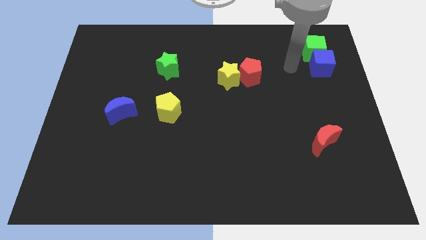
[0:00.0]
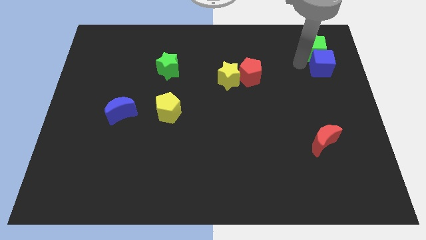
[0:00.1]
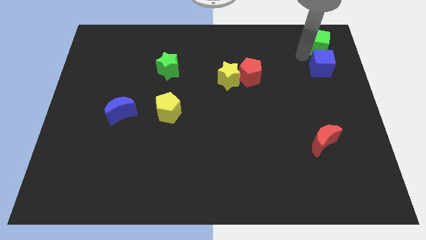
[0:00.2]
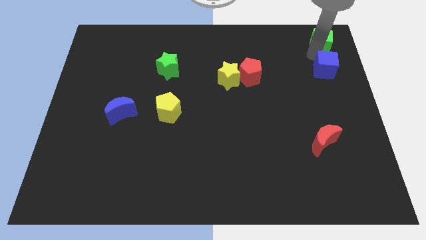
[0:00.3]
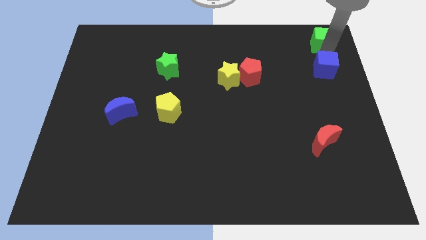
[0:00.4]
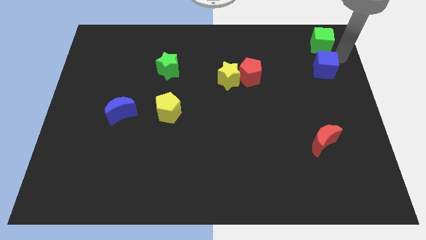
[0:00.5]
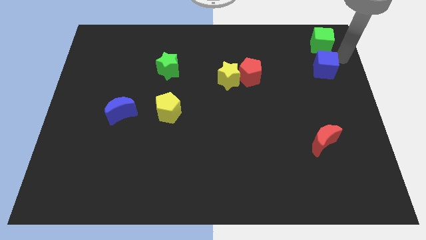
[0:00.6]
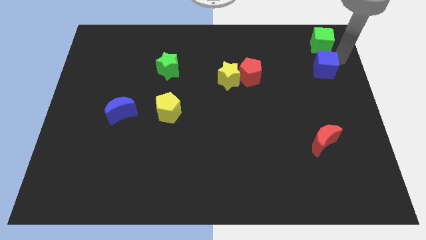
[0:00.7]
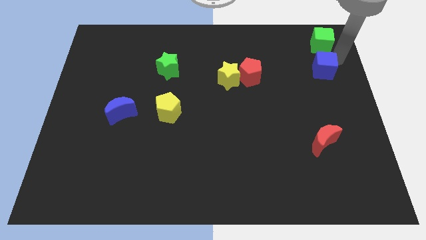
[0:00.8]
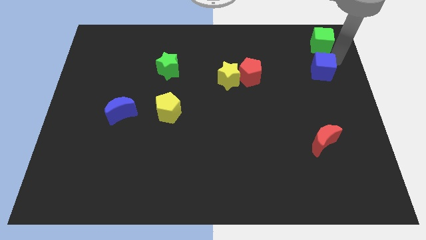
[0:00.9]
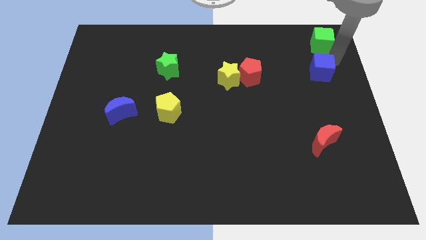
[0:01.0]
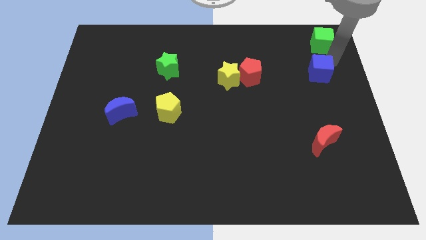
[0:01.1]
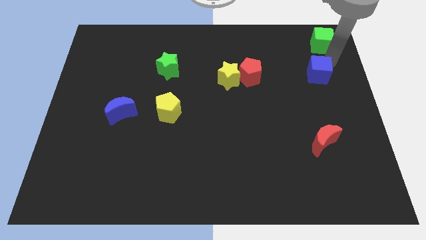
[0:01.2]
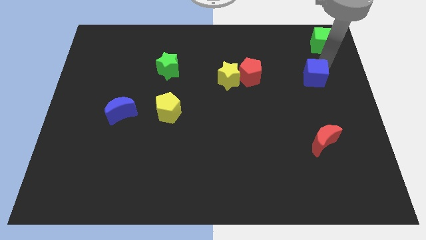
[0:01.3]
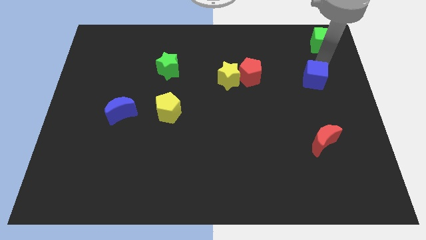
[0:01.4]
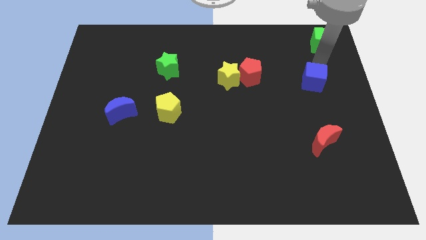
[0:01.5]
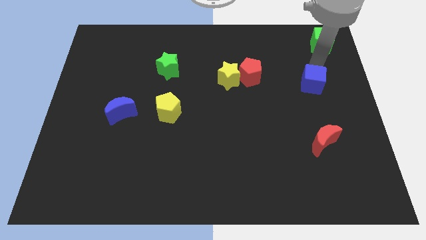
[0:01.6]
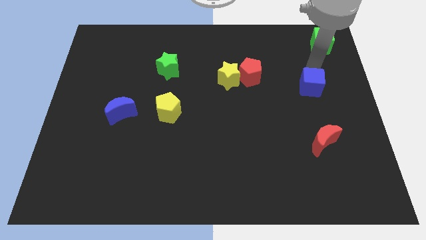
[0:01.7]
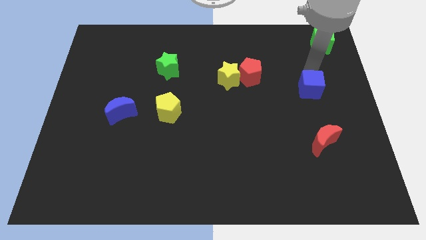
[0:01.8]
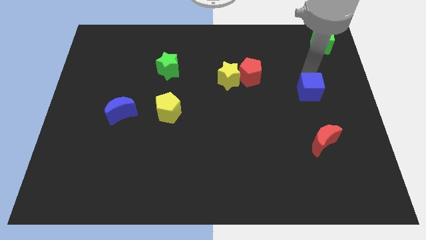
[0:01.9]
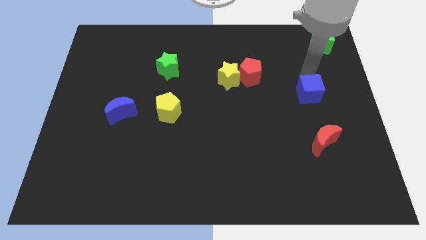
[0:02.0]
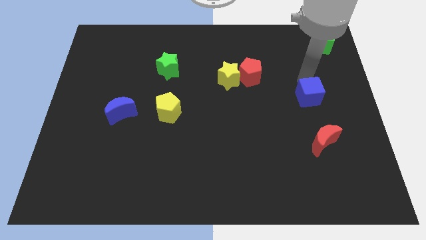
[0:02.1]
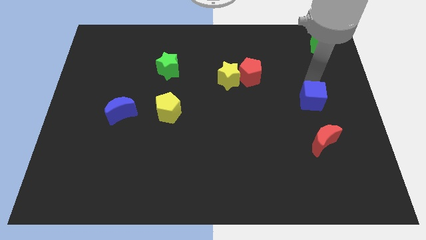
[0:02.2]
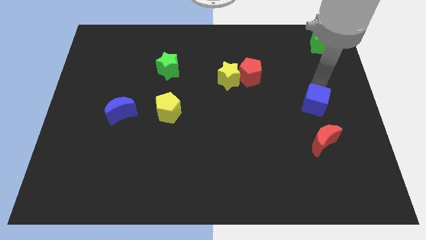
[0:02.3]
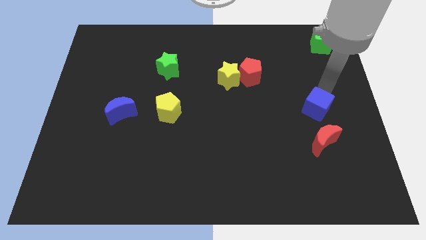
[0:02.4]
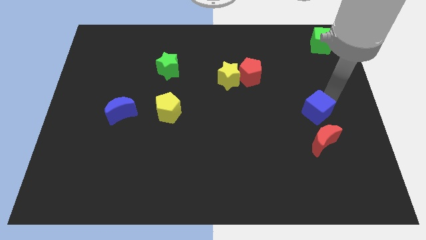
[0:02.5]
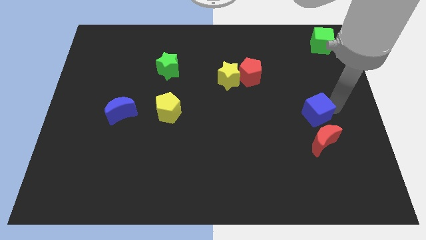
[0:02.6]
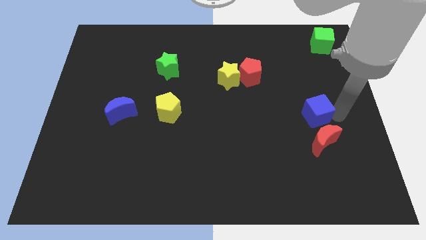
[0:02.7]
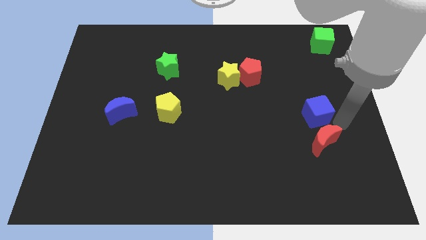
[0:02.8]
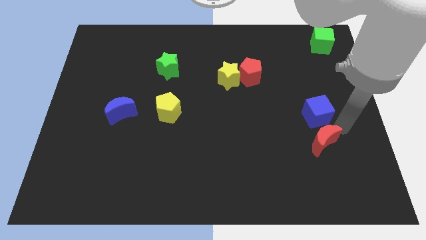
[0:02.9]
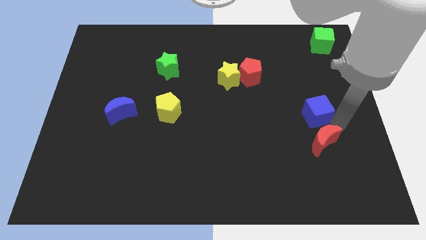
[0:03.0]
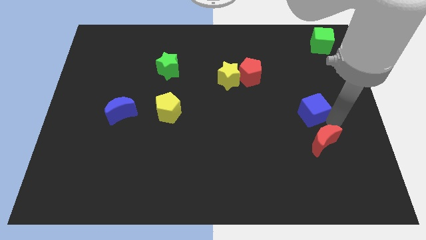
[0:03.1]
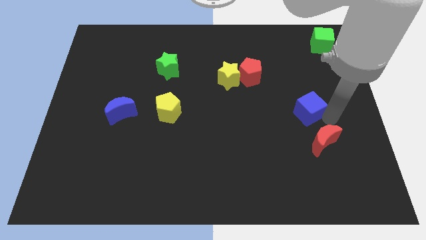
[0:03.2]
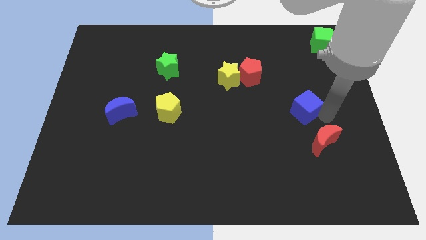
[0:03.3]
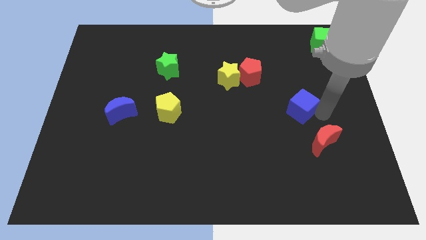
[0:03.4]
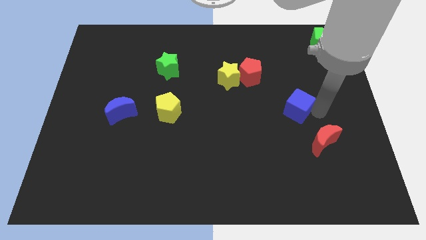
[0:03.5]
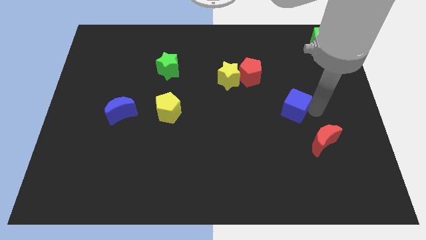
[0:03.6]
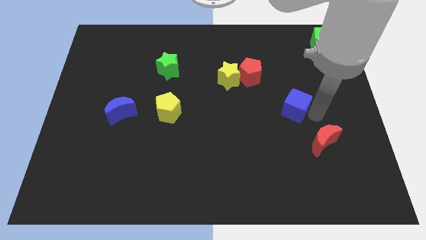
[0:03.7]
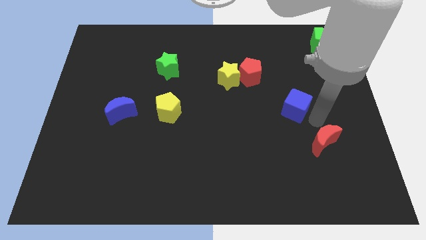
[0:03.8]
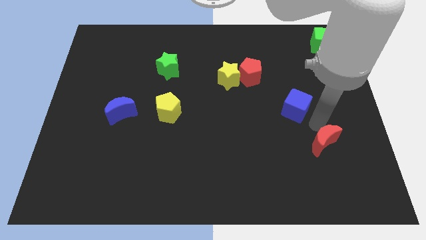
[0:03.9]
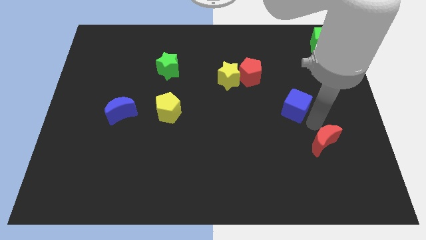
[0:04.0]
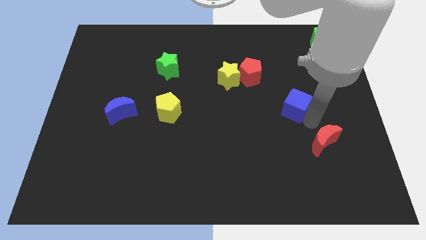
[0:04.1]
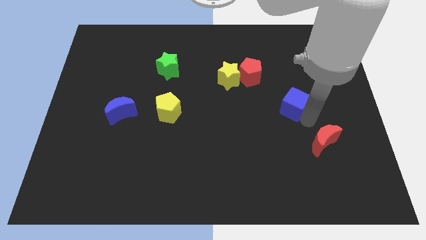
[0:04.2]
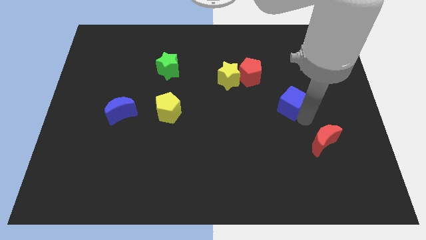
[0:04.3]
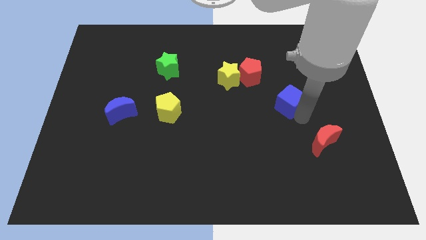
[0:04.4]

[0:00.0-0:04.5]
push the blue cube to the bottom right of the red pentagon

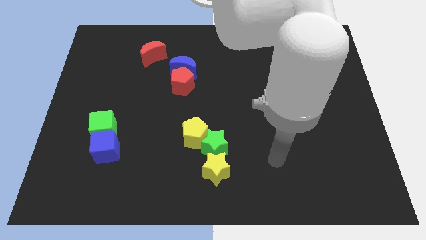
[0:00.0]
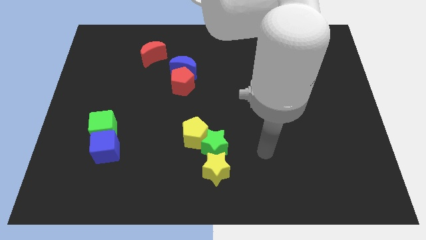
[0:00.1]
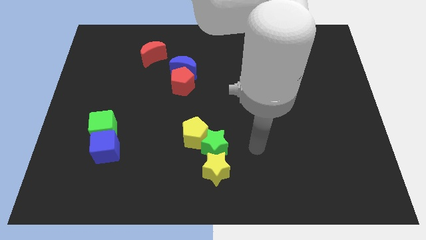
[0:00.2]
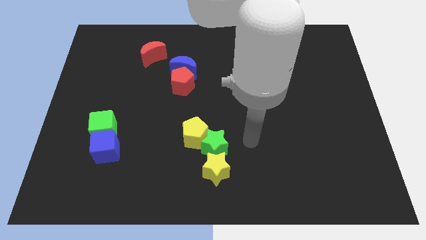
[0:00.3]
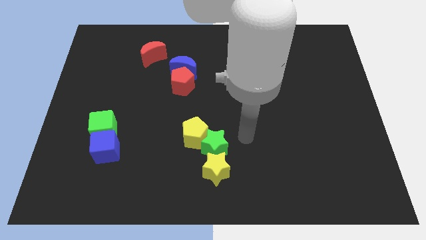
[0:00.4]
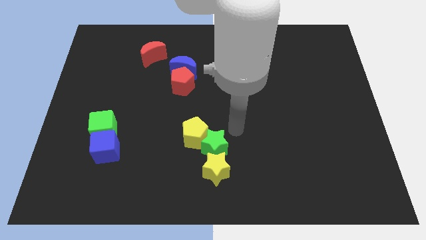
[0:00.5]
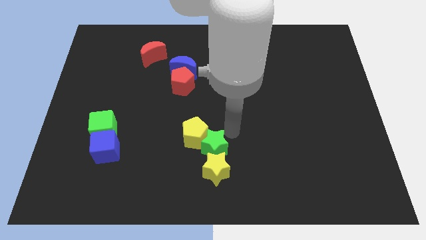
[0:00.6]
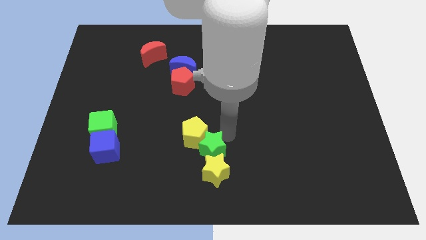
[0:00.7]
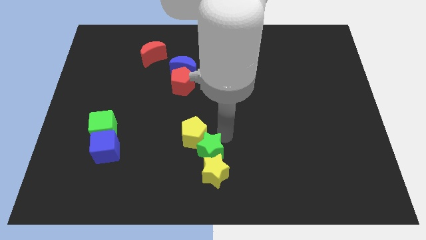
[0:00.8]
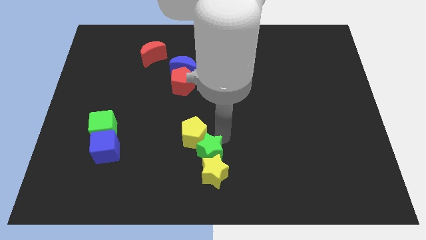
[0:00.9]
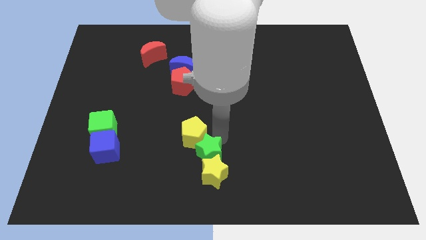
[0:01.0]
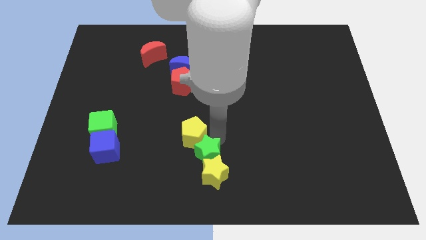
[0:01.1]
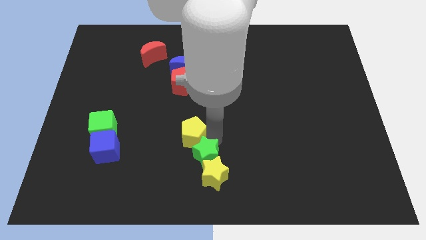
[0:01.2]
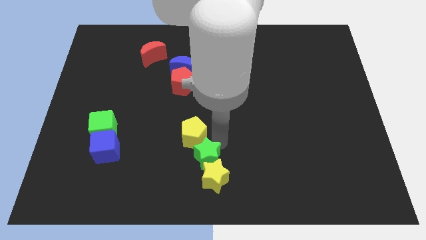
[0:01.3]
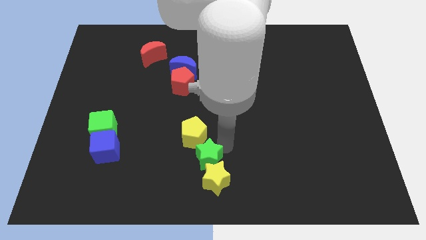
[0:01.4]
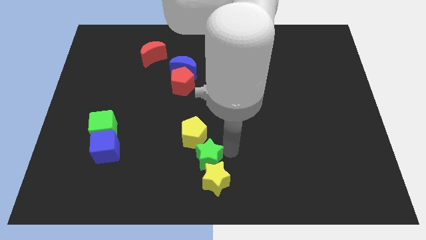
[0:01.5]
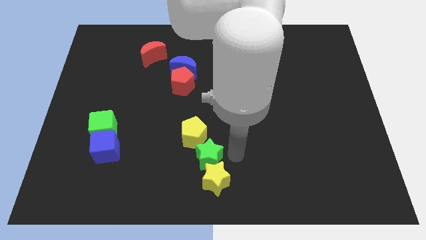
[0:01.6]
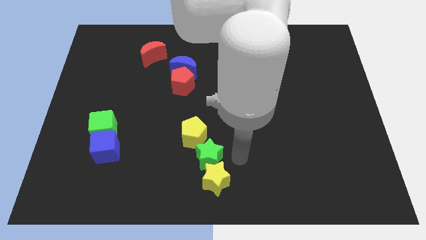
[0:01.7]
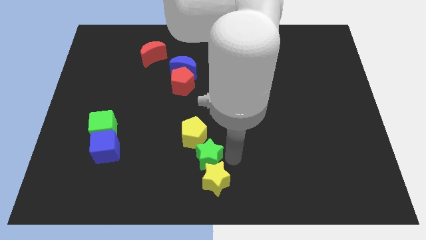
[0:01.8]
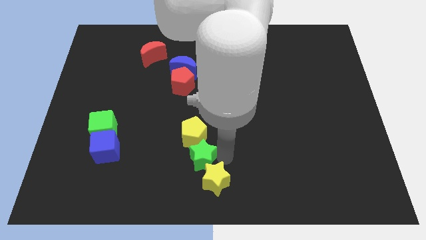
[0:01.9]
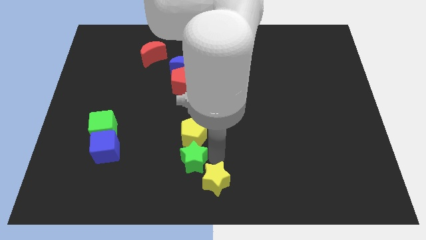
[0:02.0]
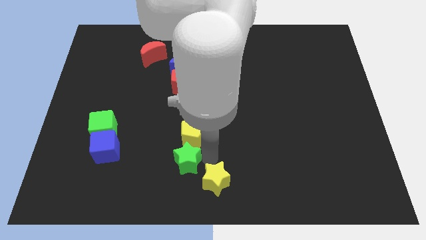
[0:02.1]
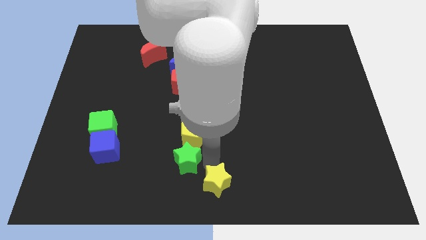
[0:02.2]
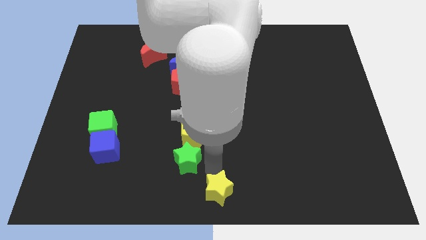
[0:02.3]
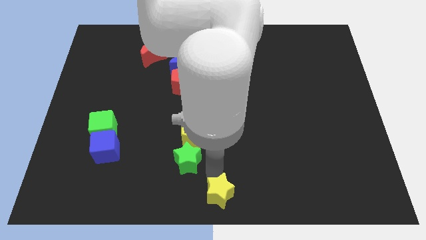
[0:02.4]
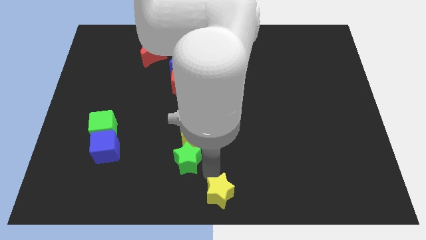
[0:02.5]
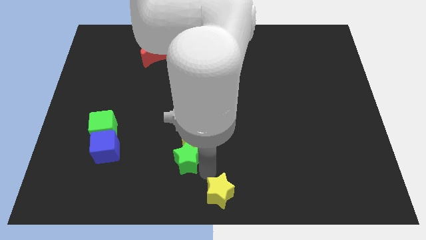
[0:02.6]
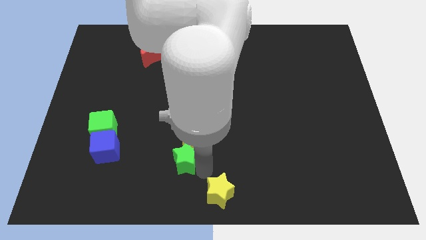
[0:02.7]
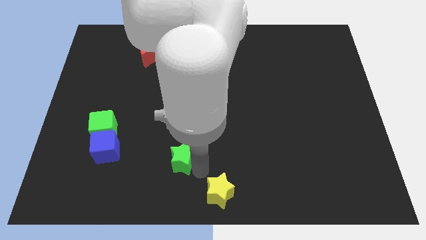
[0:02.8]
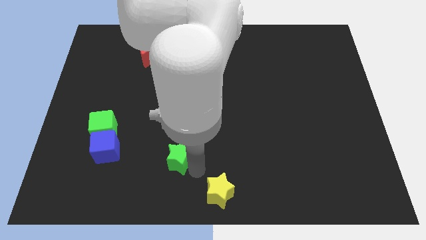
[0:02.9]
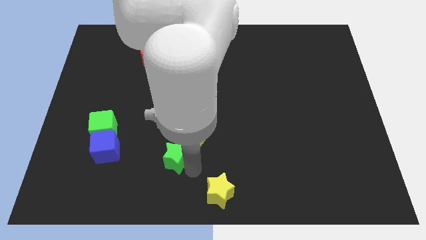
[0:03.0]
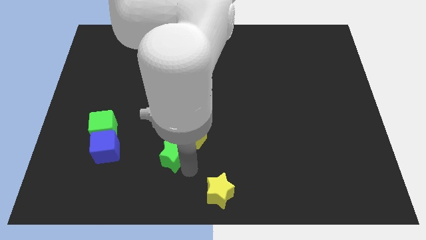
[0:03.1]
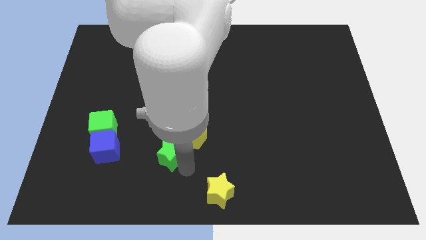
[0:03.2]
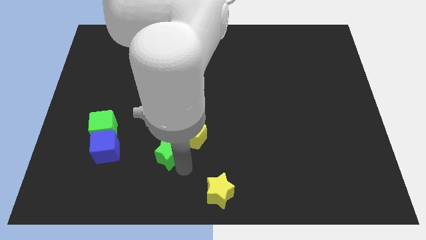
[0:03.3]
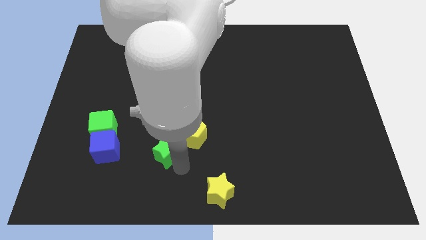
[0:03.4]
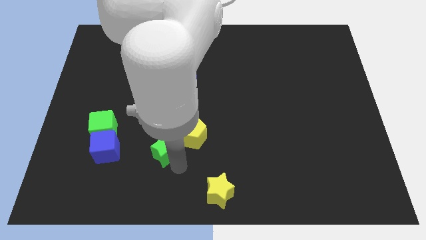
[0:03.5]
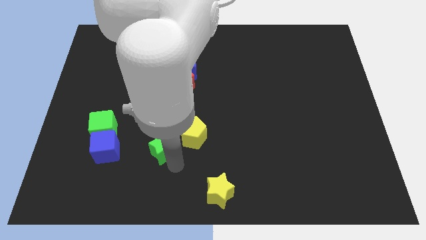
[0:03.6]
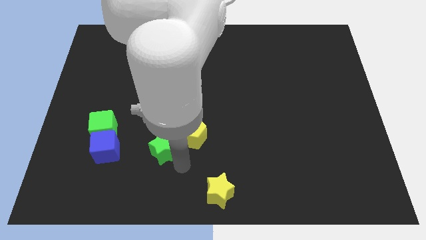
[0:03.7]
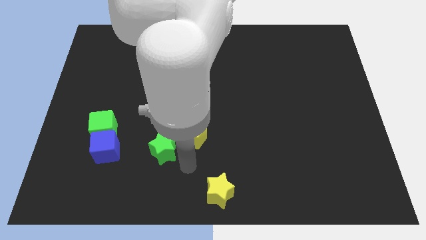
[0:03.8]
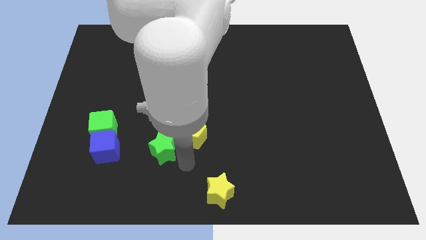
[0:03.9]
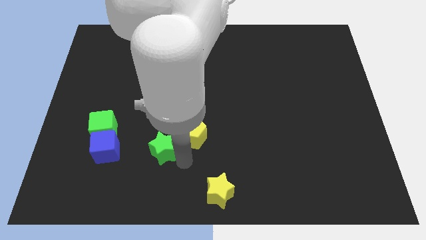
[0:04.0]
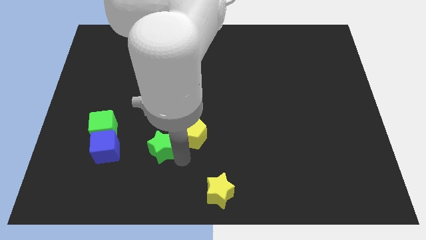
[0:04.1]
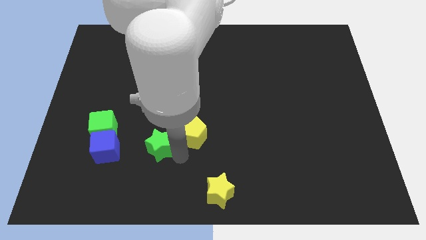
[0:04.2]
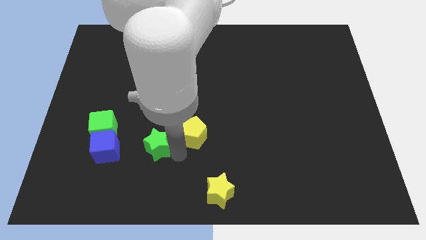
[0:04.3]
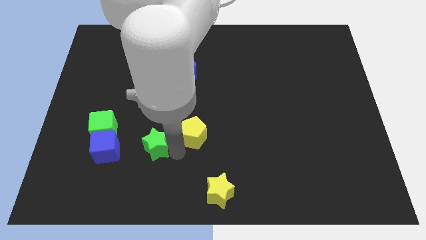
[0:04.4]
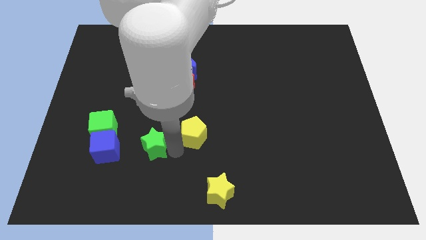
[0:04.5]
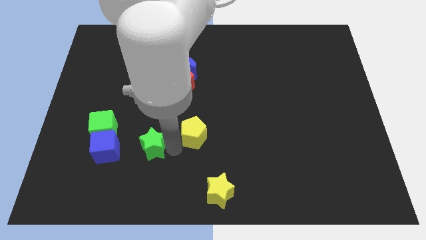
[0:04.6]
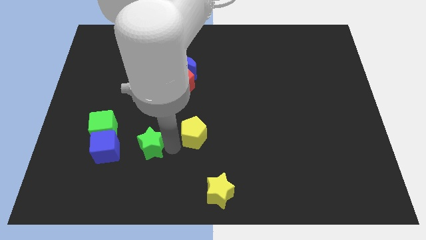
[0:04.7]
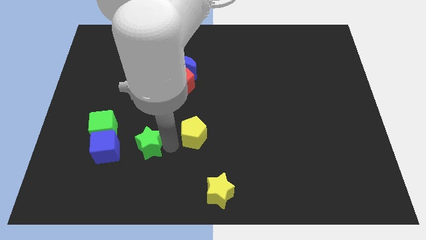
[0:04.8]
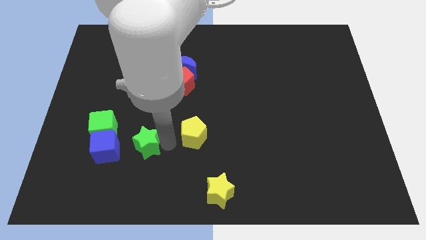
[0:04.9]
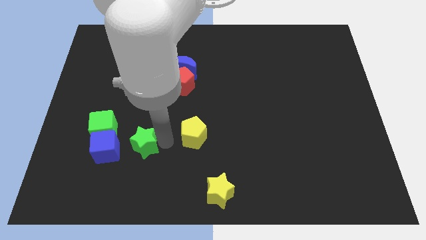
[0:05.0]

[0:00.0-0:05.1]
push the green star to the top right side of the blue cube
